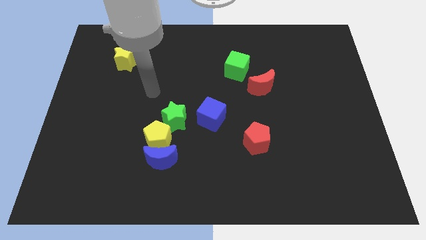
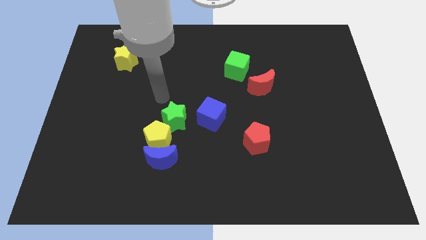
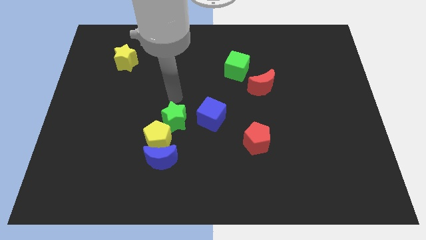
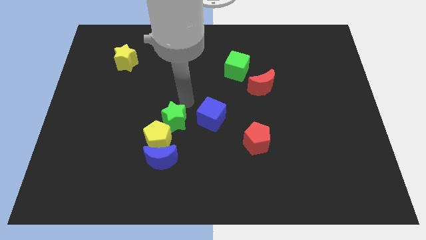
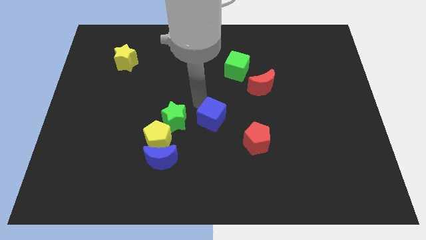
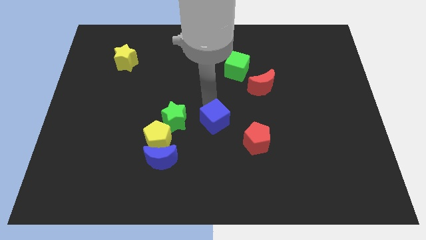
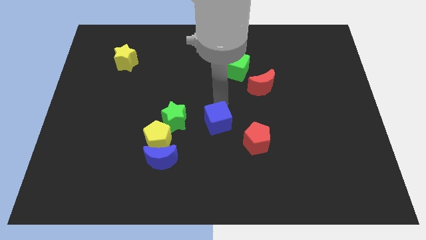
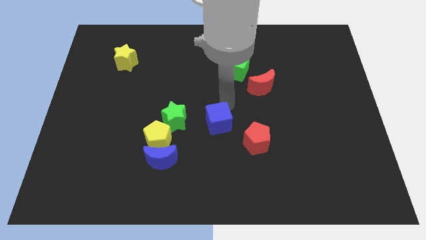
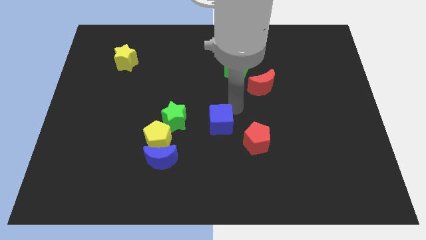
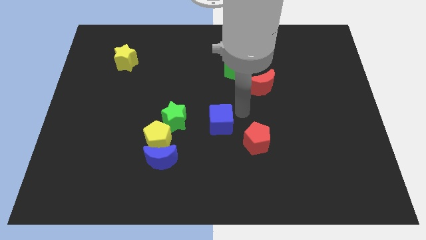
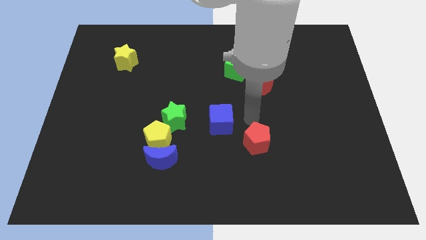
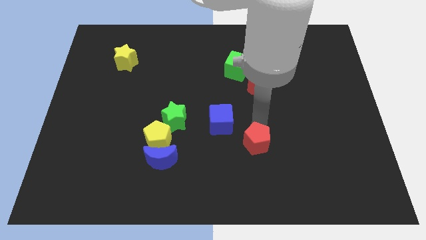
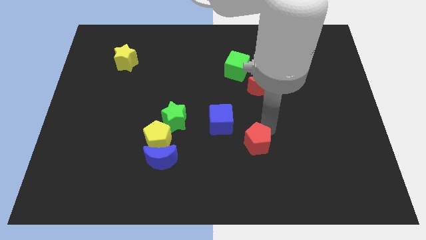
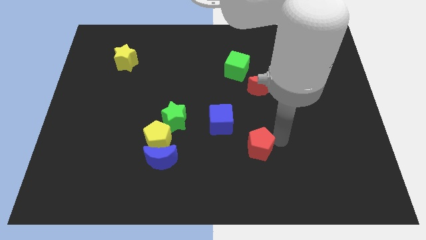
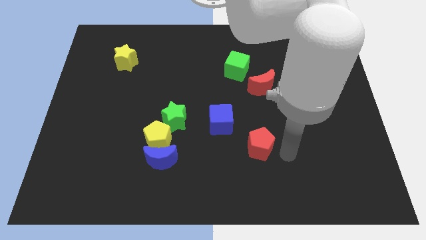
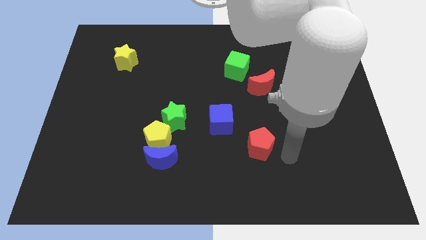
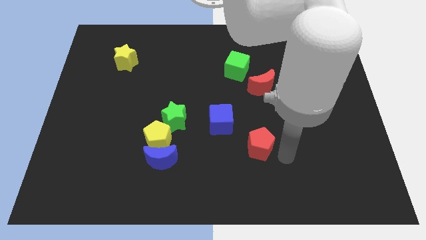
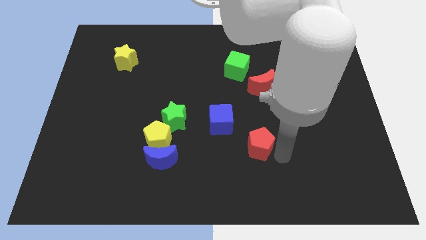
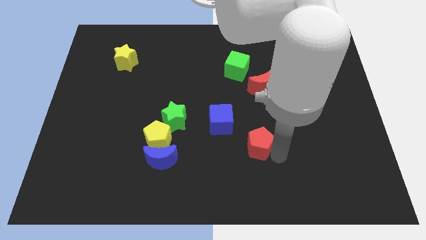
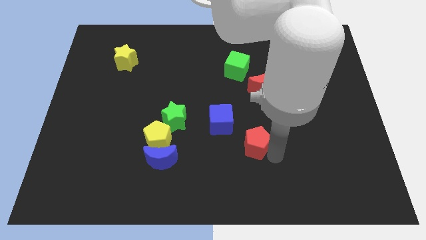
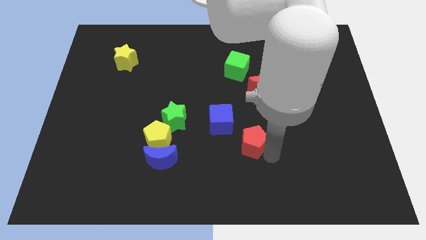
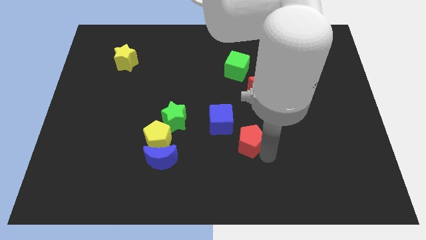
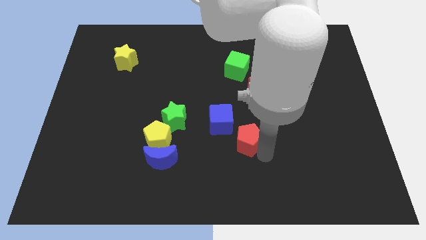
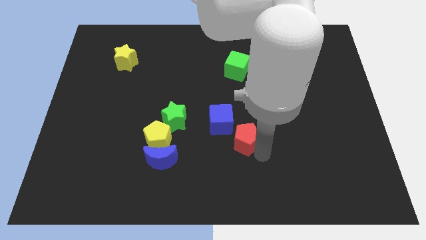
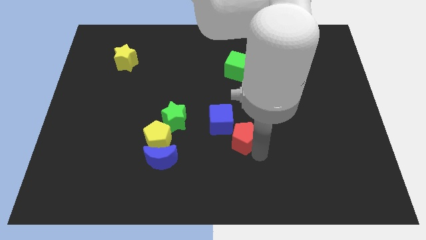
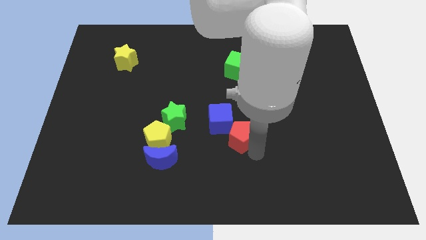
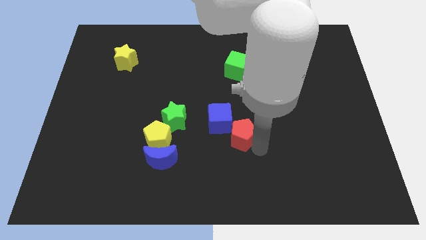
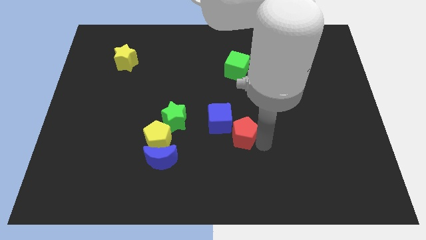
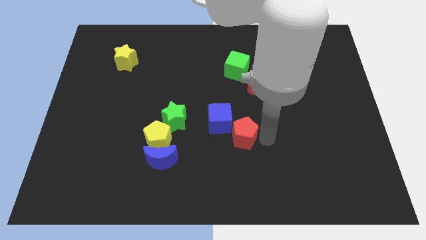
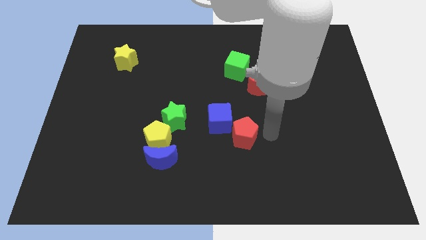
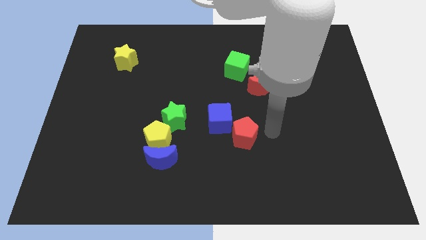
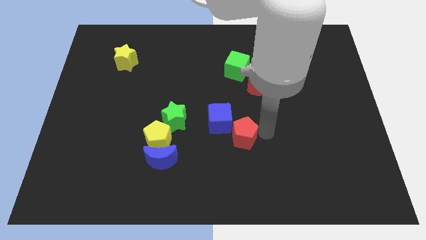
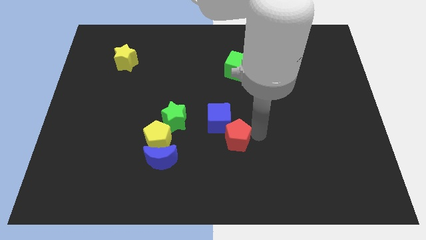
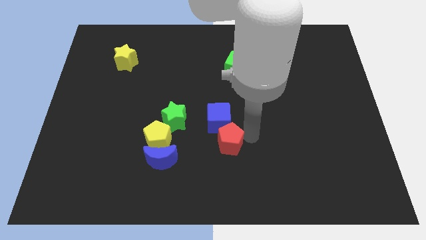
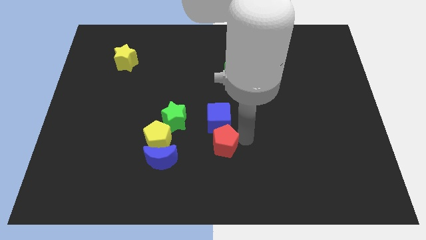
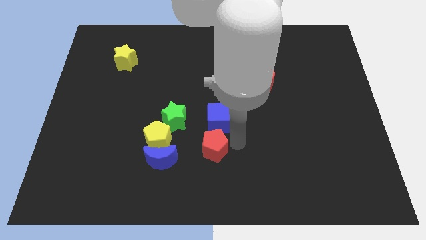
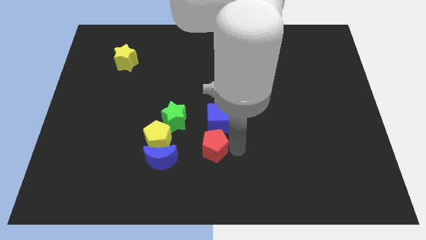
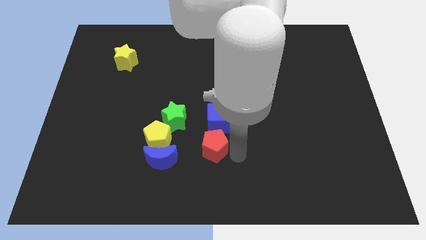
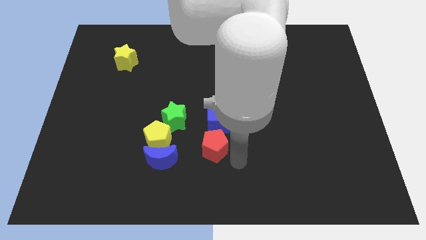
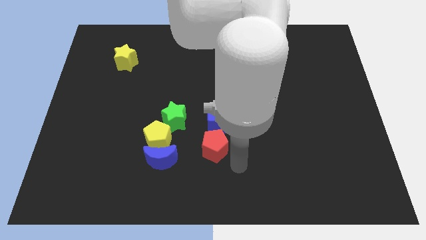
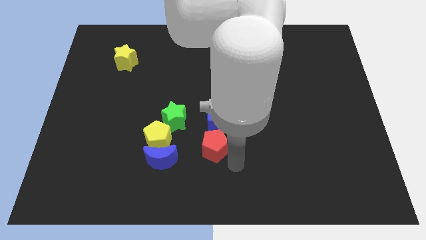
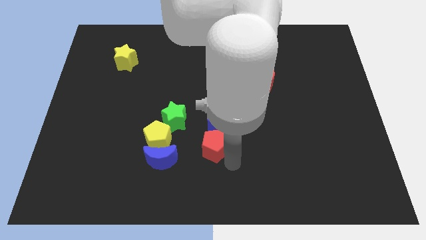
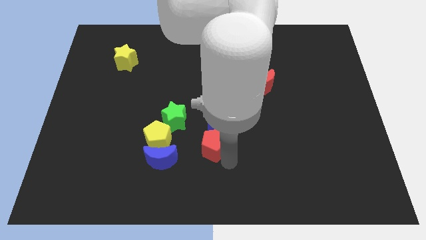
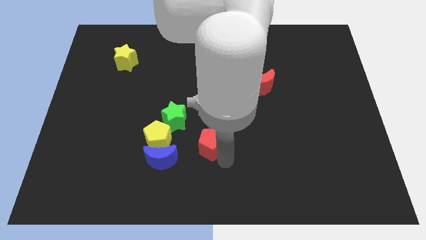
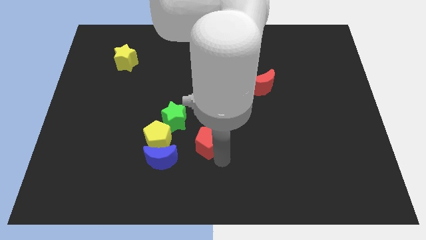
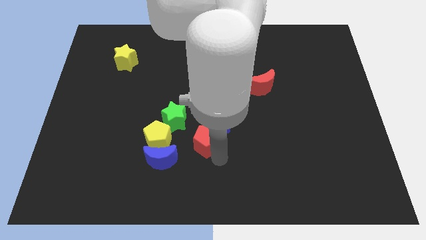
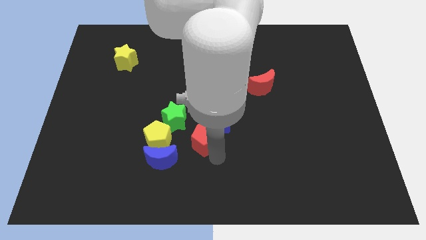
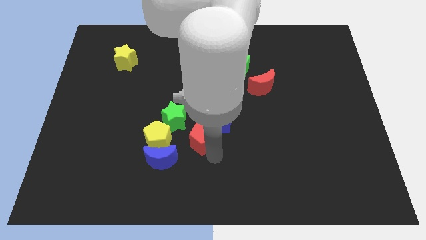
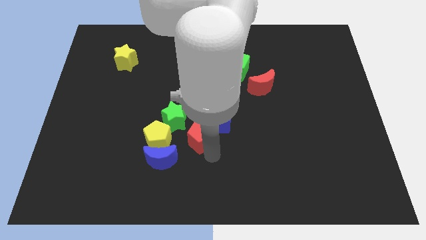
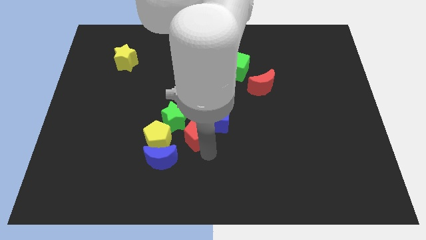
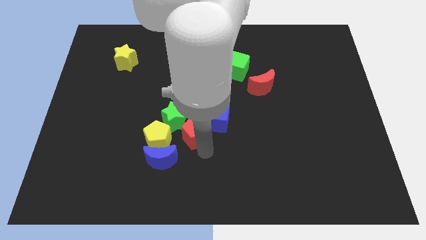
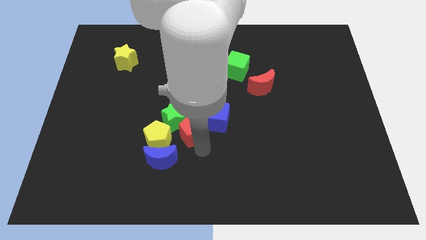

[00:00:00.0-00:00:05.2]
slide the red pentagon close to the green star

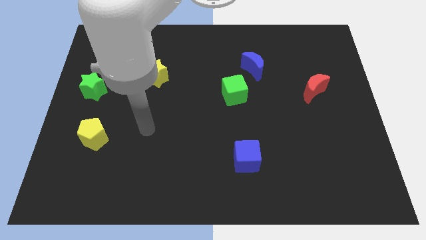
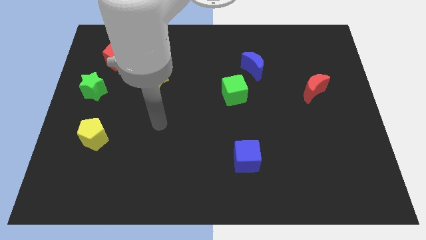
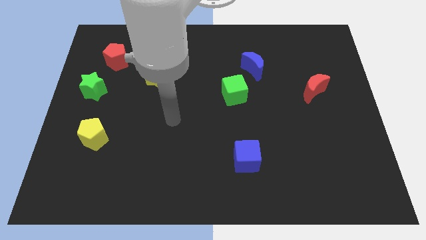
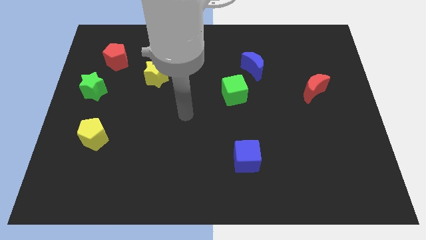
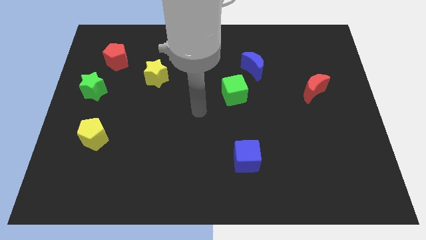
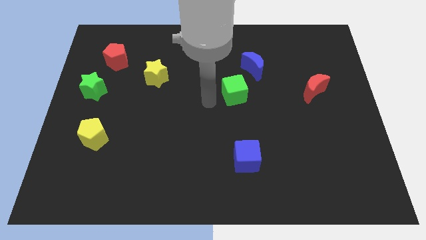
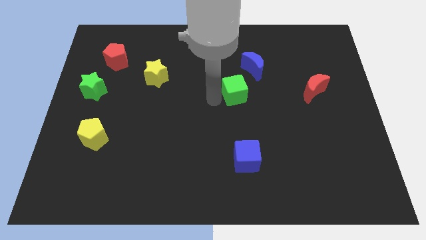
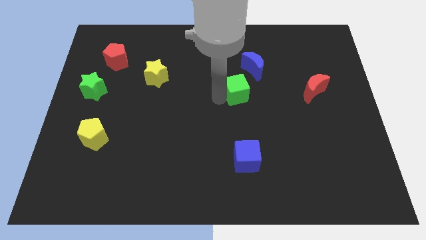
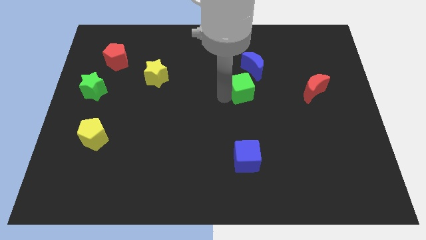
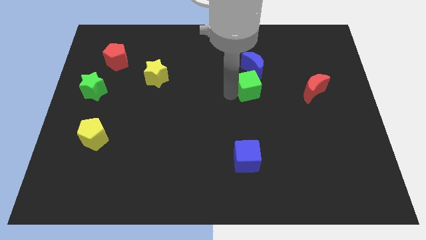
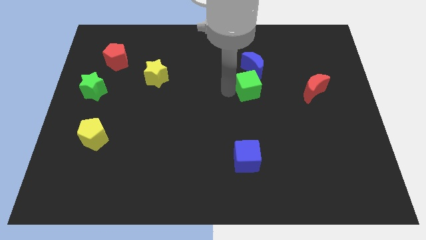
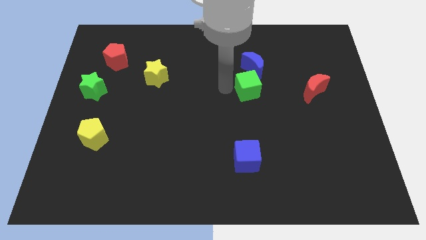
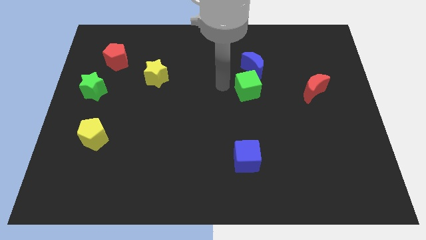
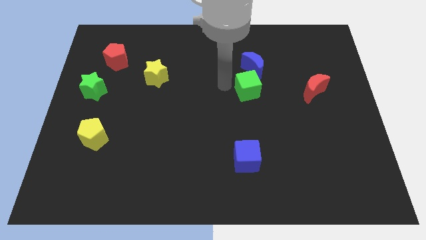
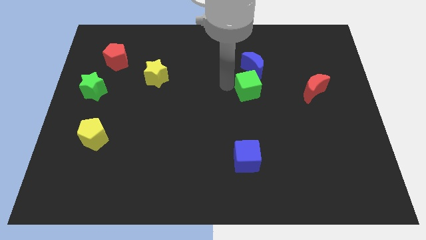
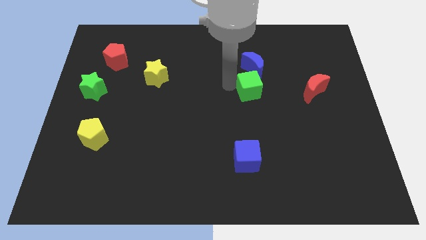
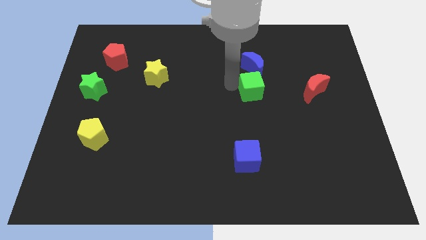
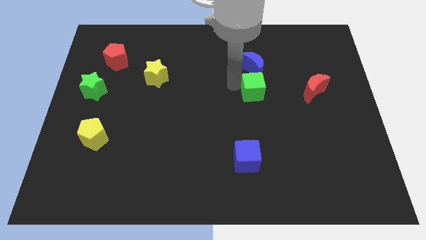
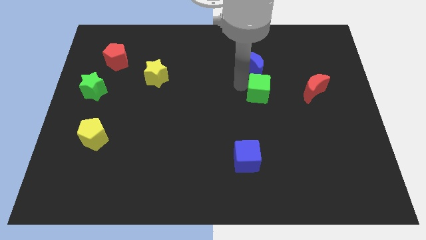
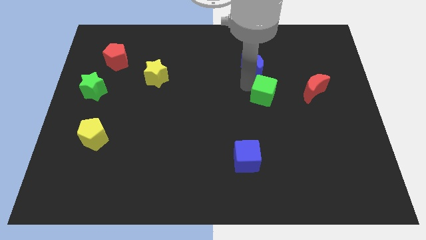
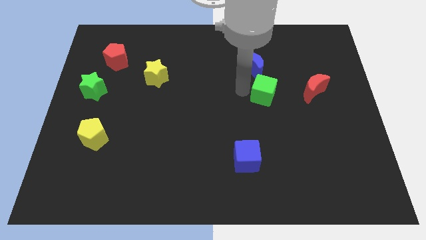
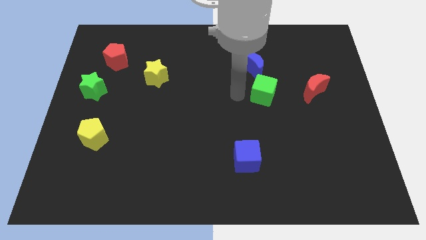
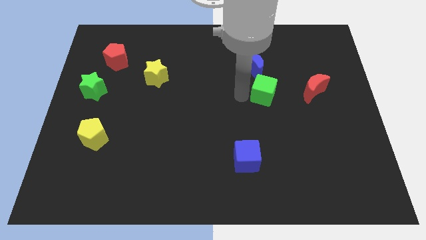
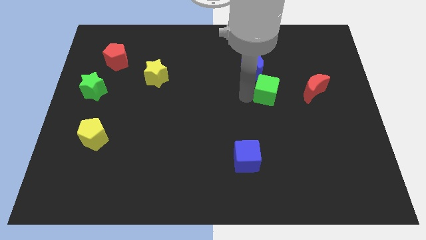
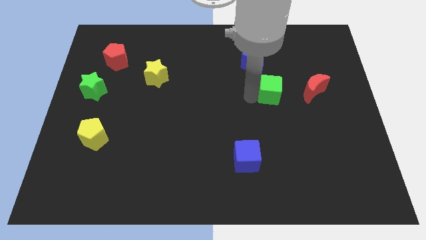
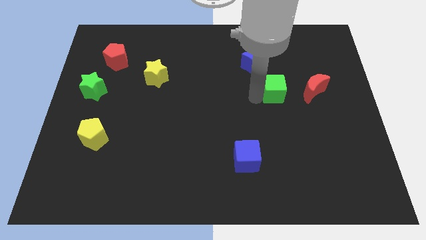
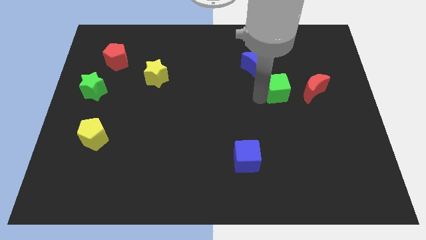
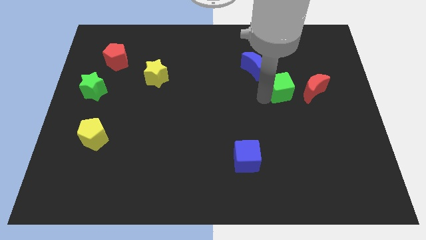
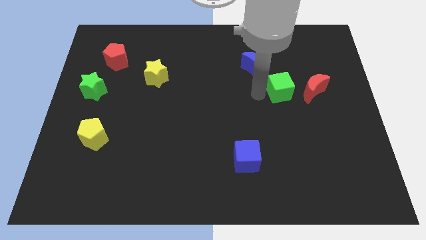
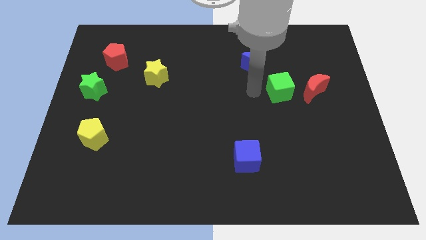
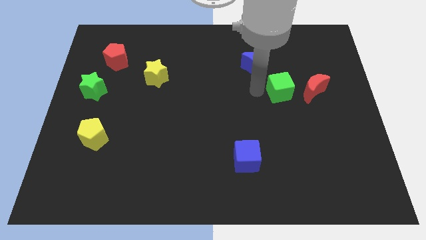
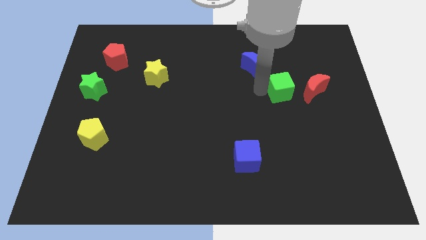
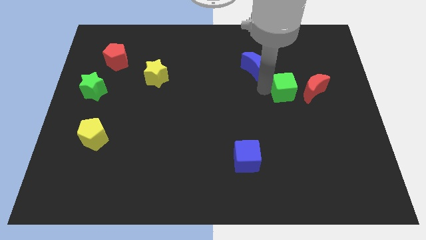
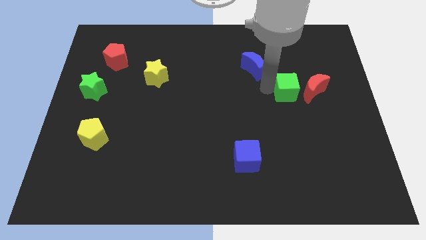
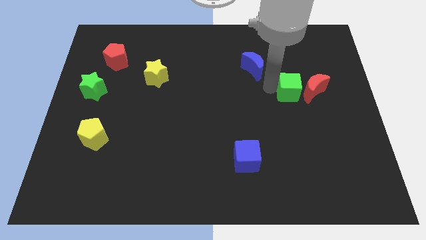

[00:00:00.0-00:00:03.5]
put the green cube close to the red moon
